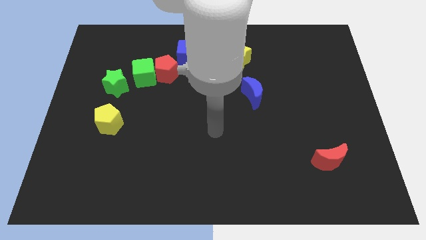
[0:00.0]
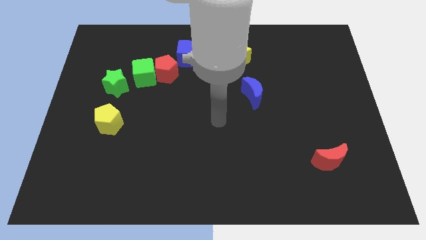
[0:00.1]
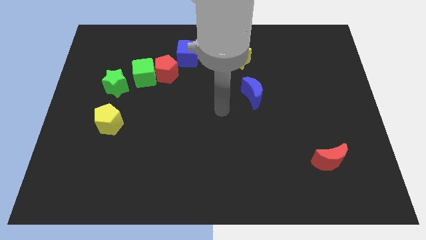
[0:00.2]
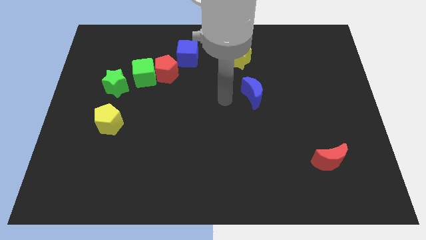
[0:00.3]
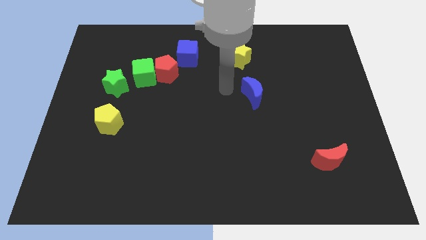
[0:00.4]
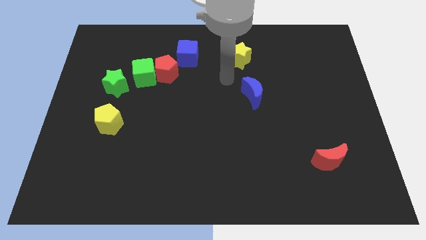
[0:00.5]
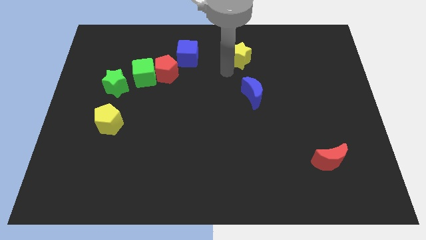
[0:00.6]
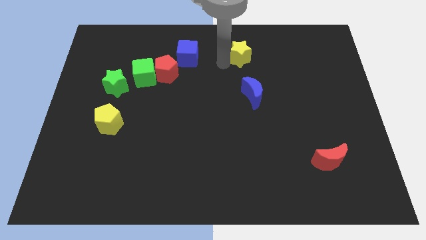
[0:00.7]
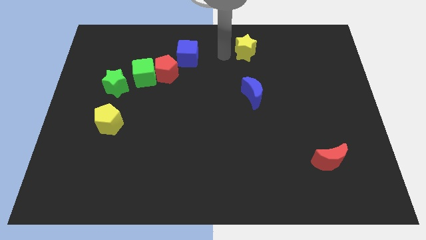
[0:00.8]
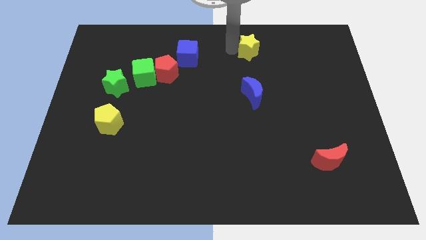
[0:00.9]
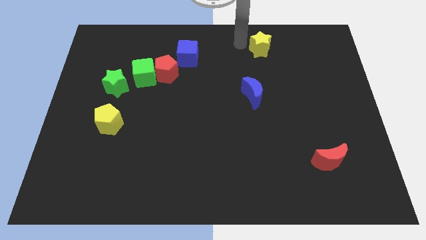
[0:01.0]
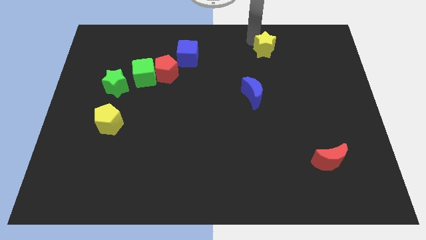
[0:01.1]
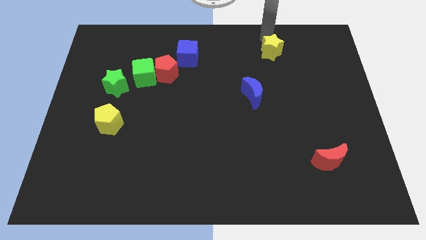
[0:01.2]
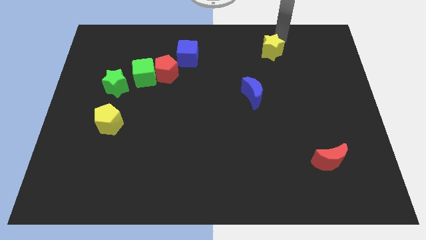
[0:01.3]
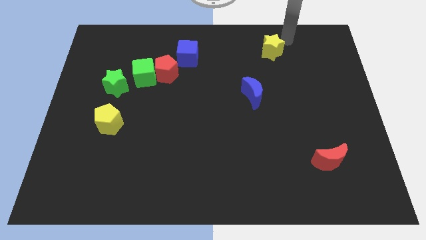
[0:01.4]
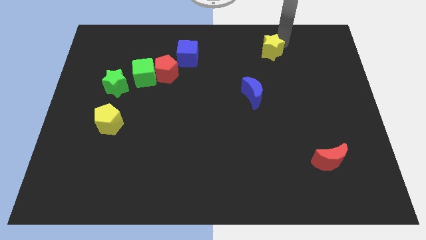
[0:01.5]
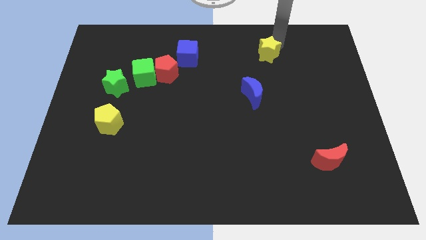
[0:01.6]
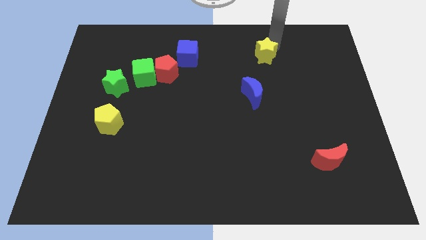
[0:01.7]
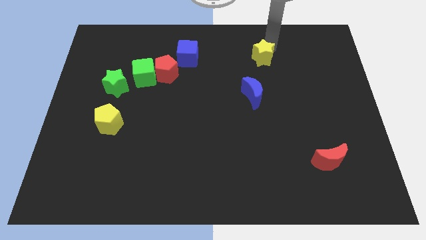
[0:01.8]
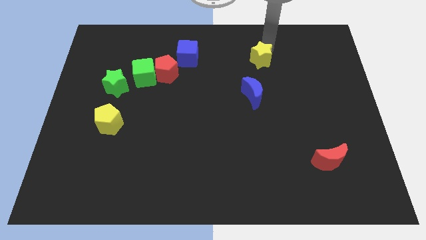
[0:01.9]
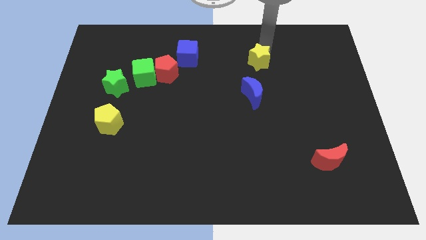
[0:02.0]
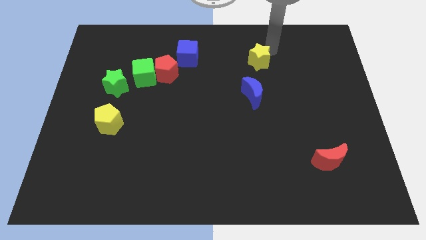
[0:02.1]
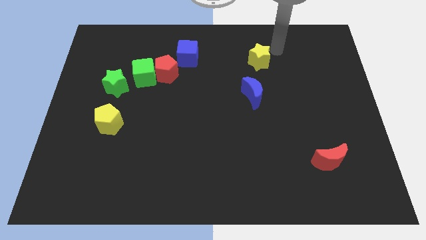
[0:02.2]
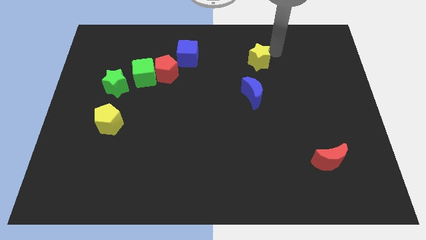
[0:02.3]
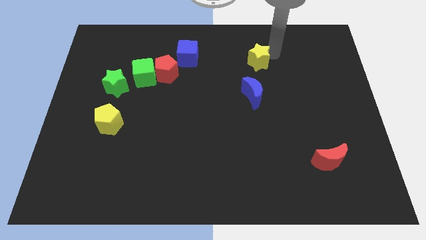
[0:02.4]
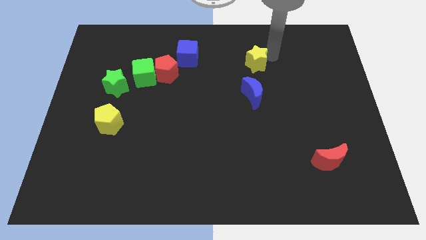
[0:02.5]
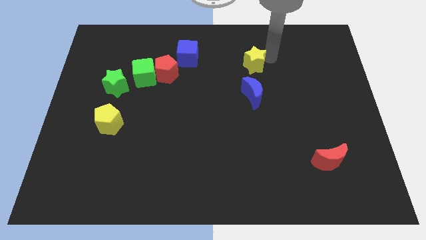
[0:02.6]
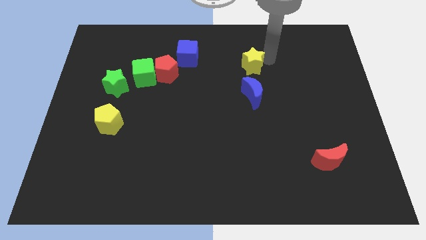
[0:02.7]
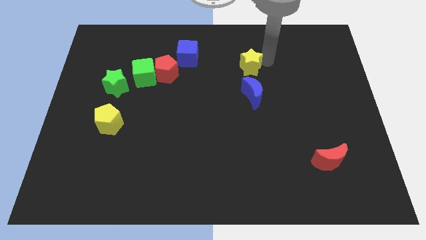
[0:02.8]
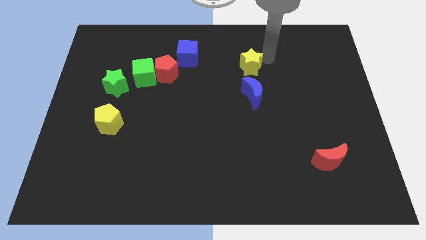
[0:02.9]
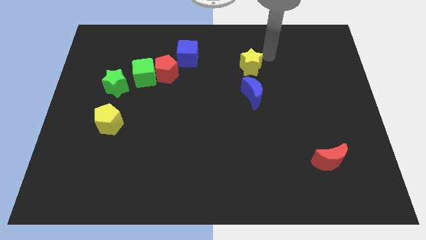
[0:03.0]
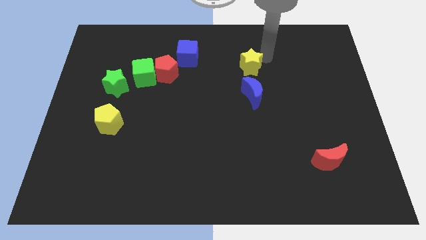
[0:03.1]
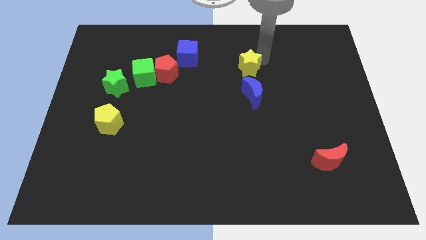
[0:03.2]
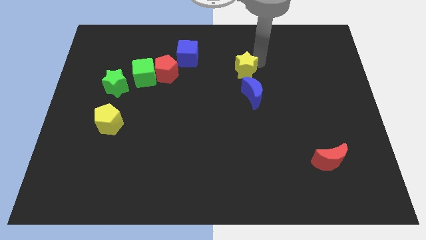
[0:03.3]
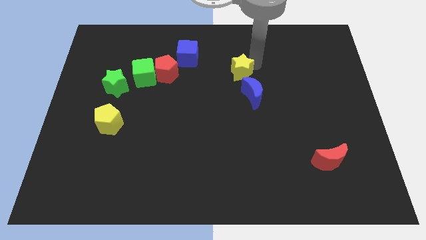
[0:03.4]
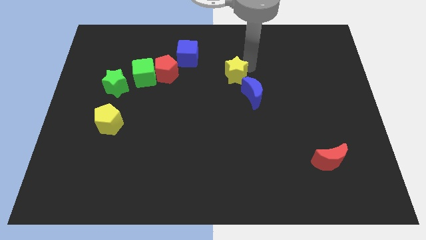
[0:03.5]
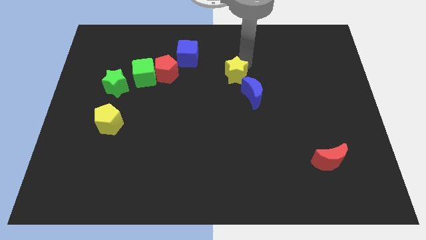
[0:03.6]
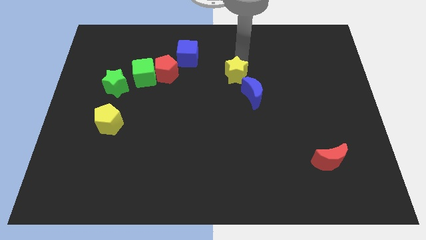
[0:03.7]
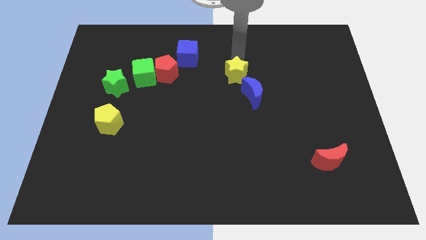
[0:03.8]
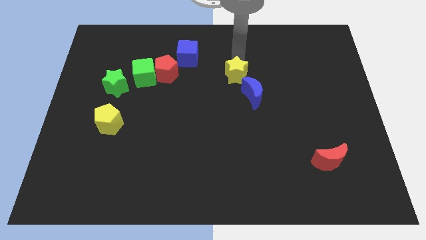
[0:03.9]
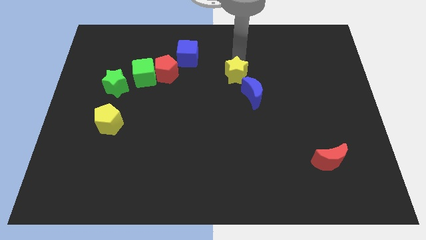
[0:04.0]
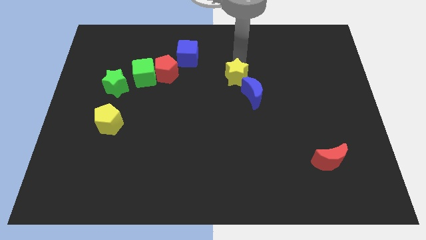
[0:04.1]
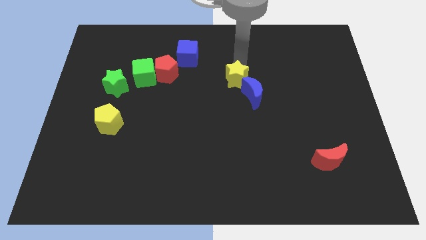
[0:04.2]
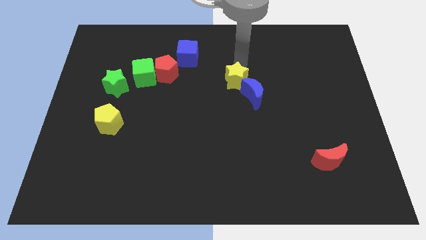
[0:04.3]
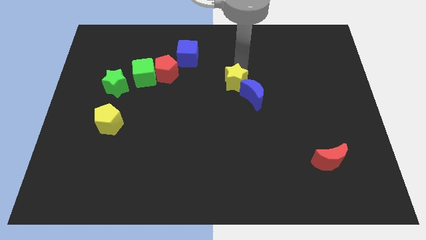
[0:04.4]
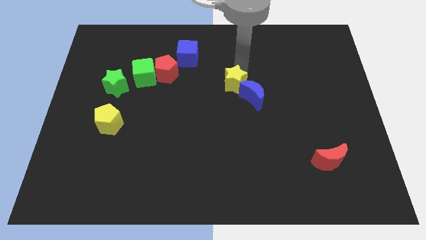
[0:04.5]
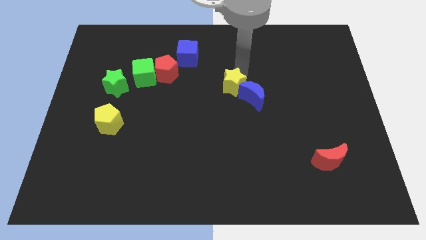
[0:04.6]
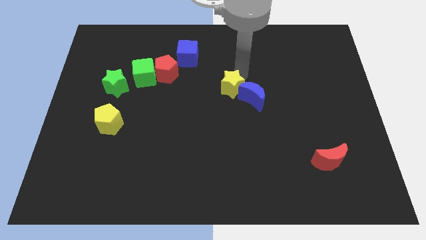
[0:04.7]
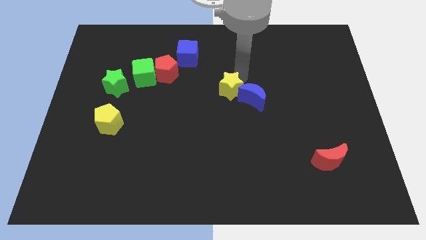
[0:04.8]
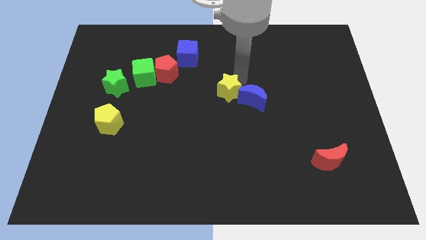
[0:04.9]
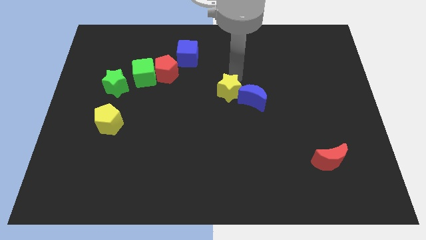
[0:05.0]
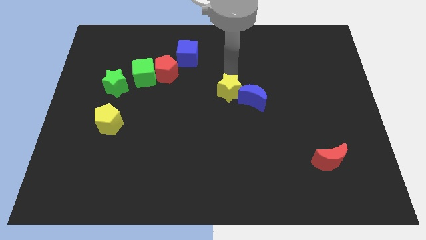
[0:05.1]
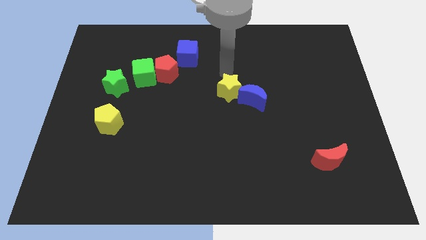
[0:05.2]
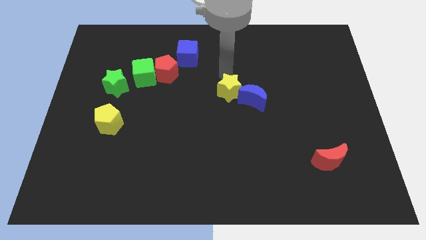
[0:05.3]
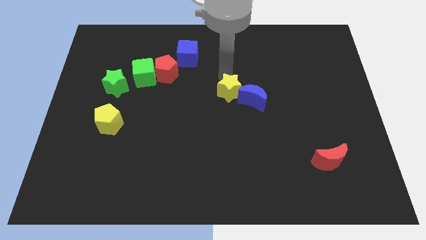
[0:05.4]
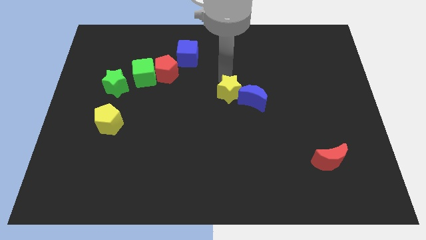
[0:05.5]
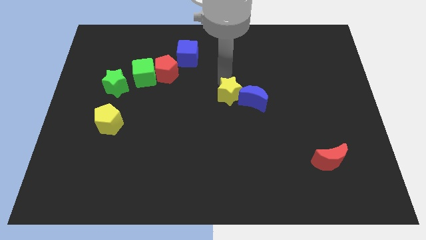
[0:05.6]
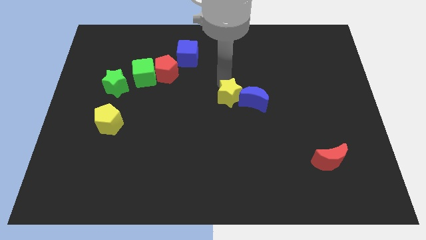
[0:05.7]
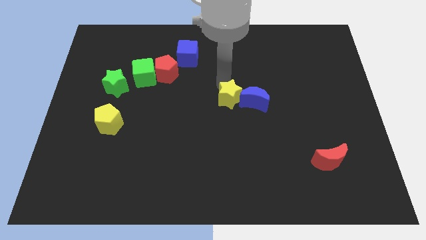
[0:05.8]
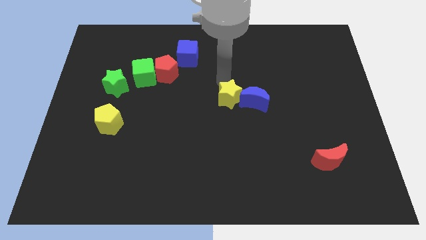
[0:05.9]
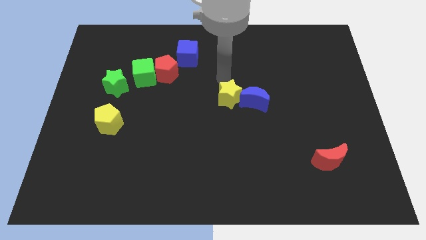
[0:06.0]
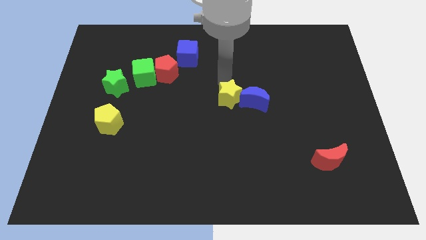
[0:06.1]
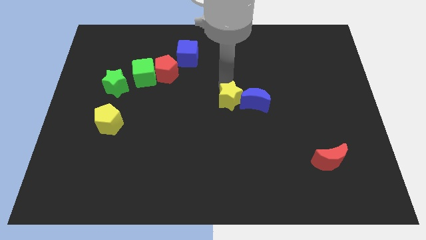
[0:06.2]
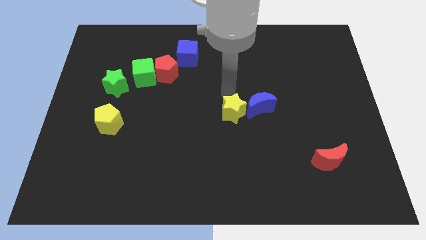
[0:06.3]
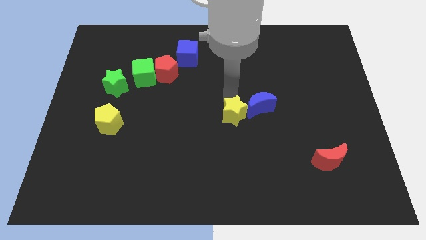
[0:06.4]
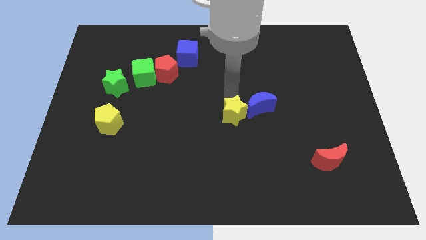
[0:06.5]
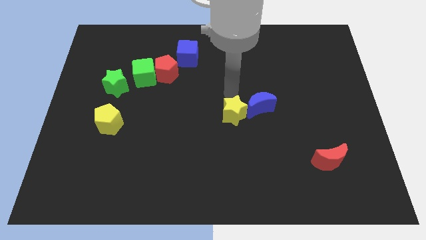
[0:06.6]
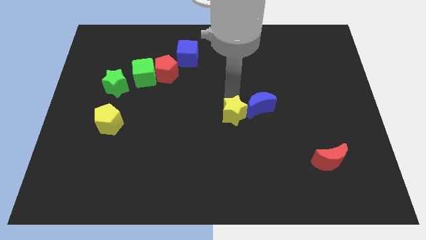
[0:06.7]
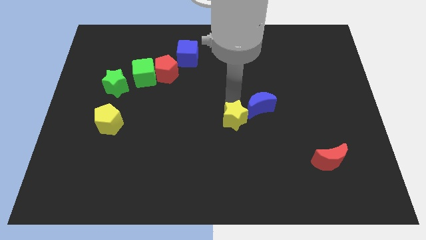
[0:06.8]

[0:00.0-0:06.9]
slide the yellow star down

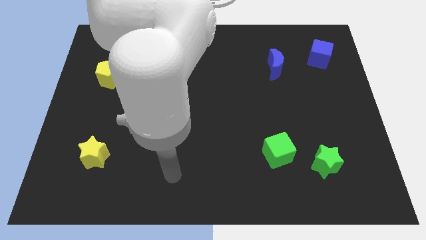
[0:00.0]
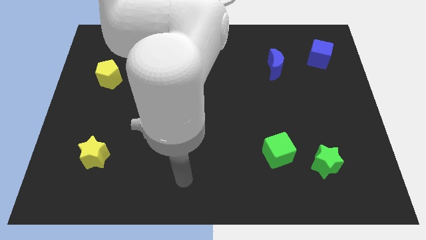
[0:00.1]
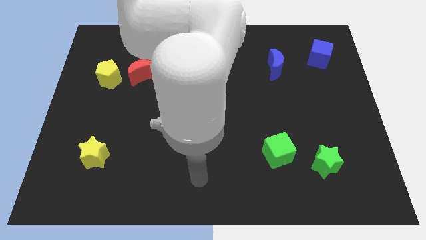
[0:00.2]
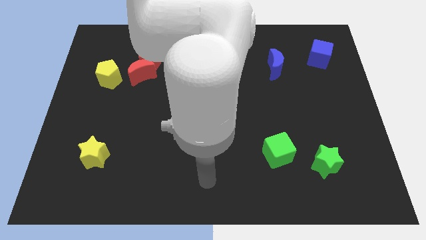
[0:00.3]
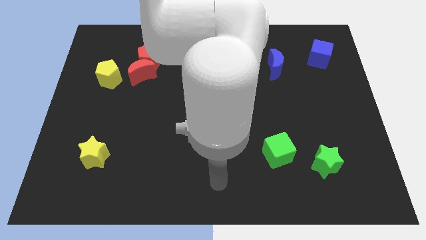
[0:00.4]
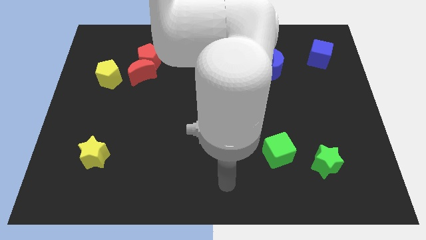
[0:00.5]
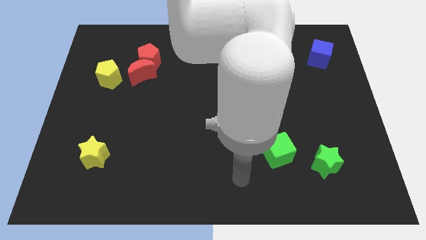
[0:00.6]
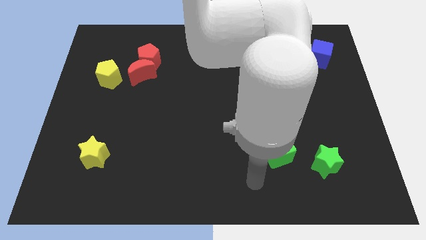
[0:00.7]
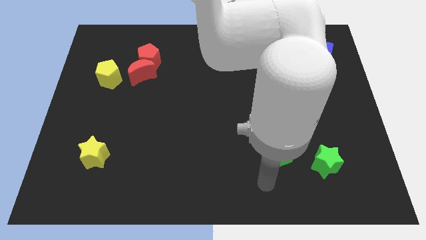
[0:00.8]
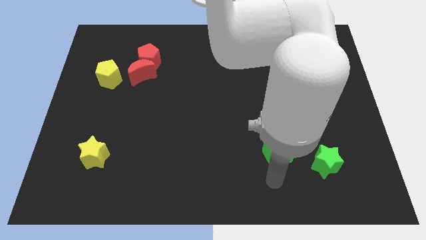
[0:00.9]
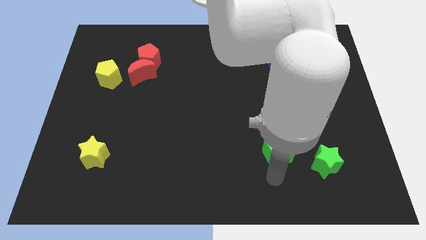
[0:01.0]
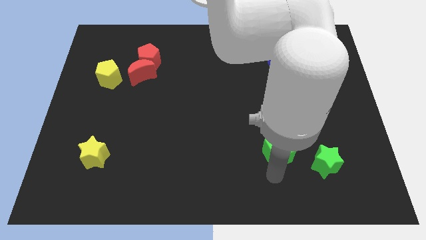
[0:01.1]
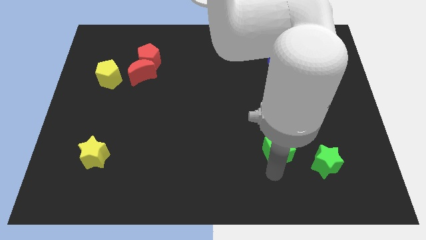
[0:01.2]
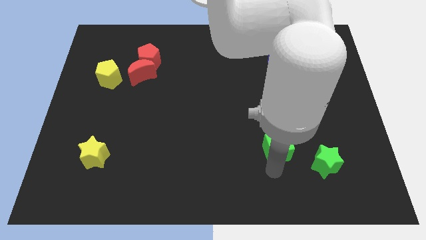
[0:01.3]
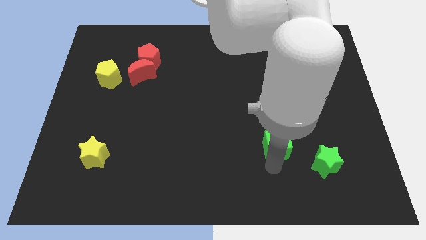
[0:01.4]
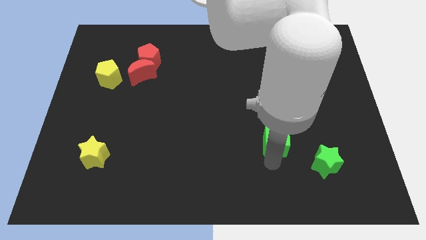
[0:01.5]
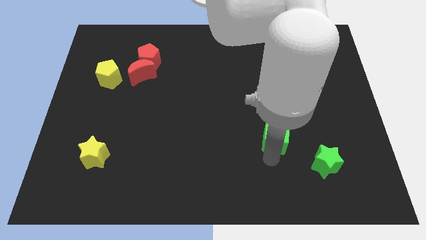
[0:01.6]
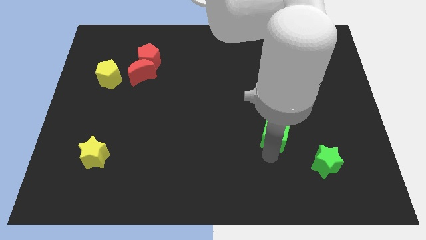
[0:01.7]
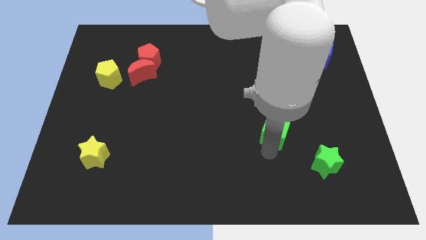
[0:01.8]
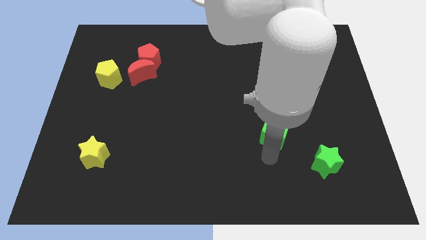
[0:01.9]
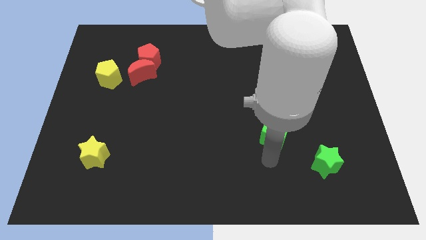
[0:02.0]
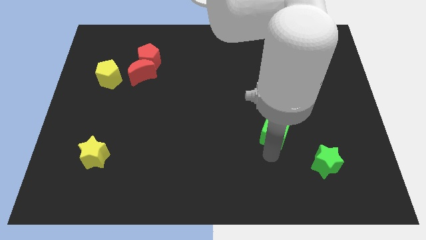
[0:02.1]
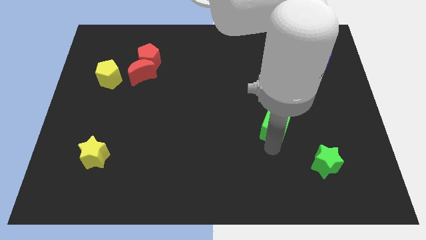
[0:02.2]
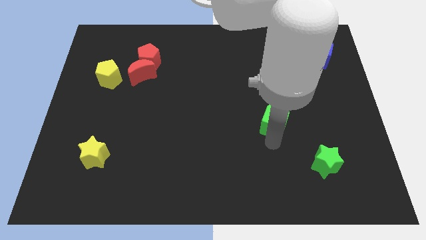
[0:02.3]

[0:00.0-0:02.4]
push the green cube a little up
